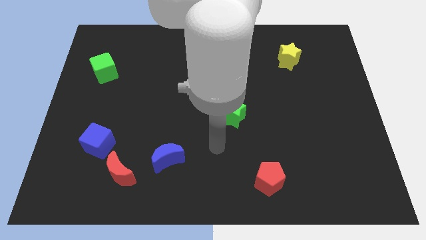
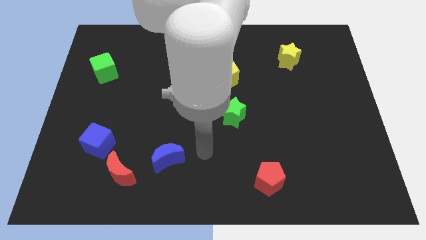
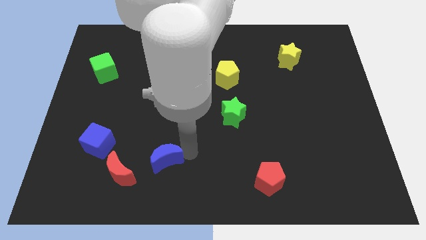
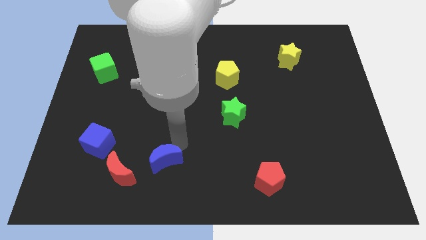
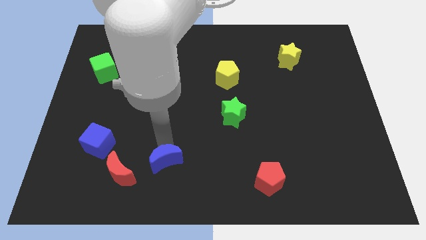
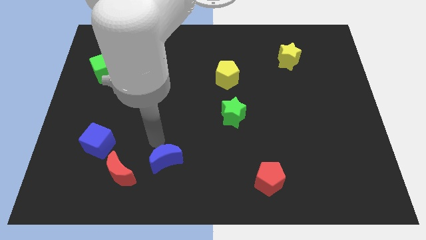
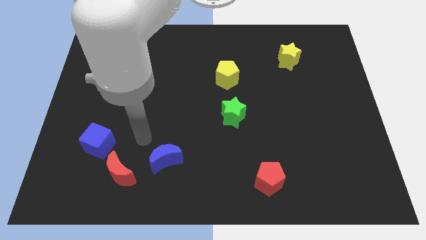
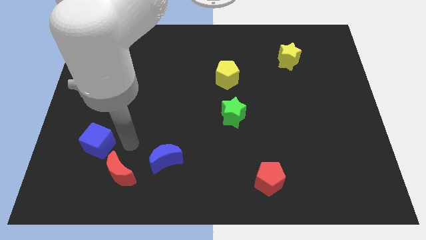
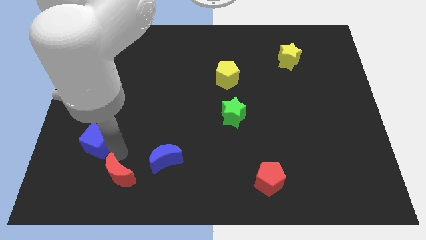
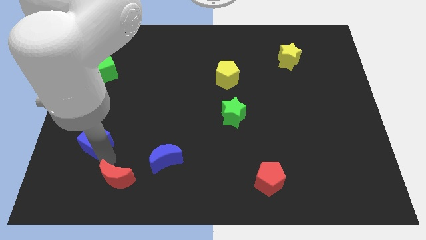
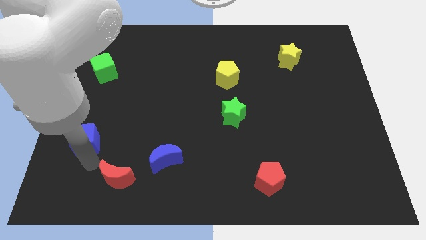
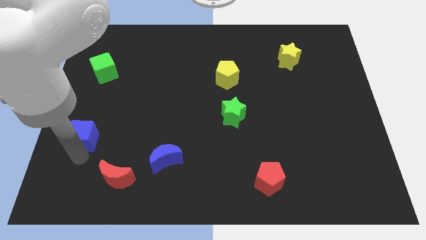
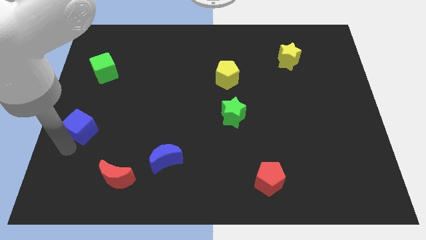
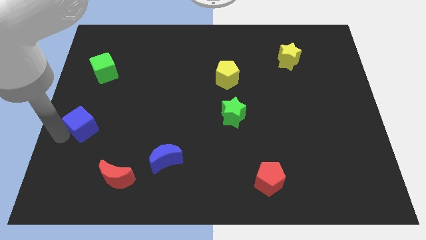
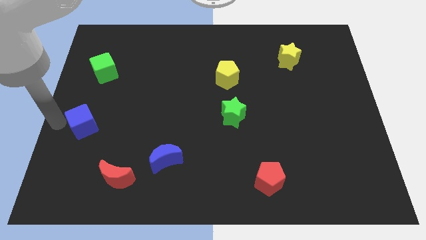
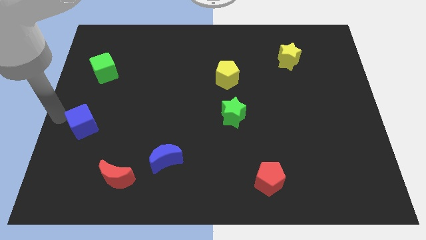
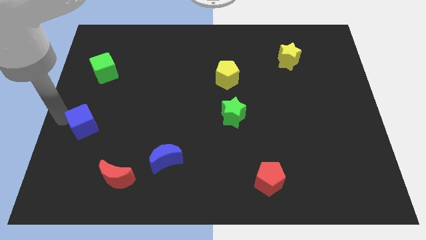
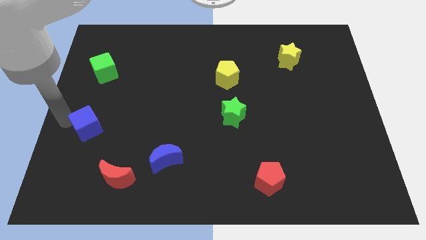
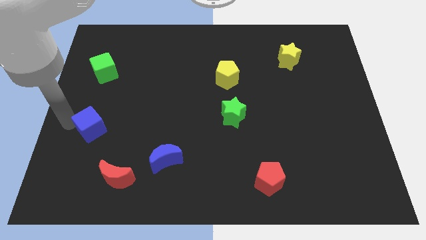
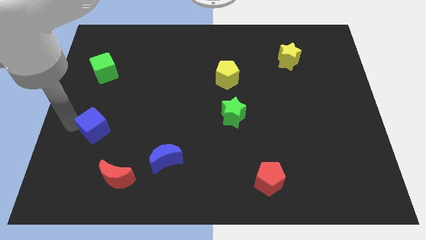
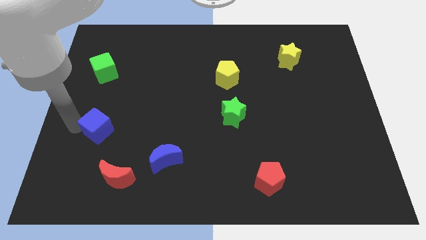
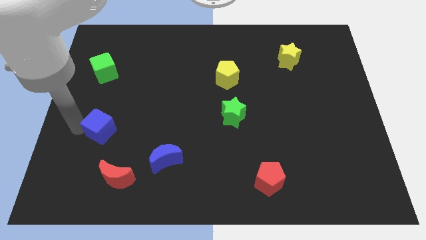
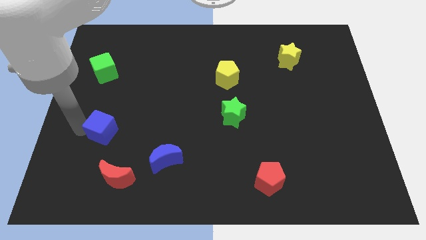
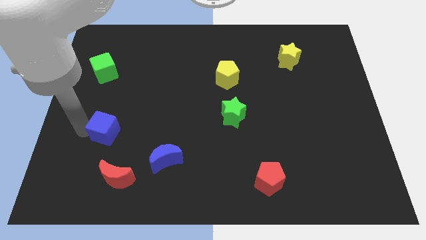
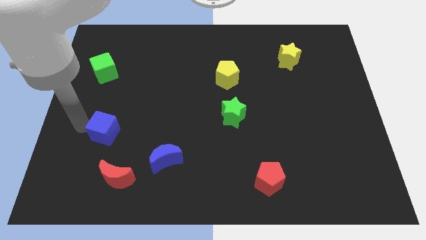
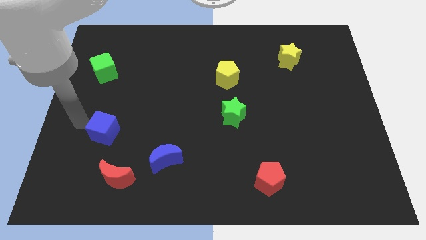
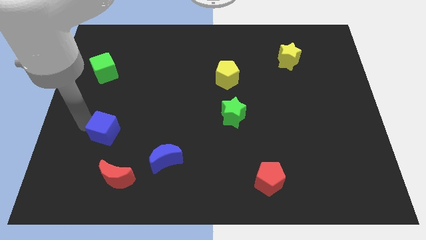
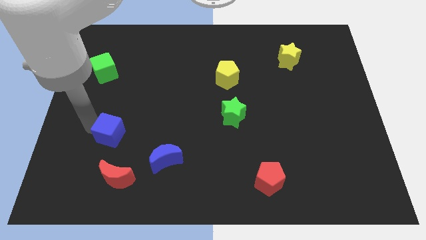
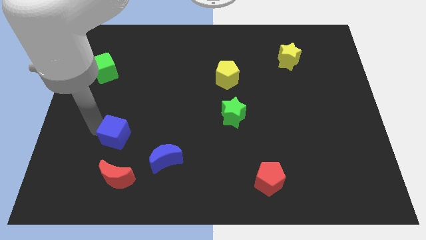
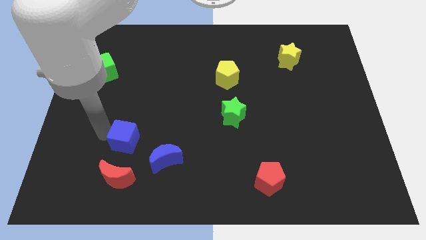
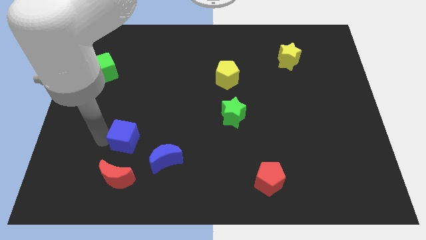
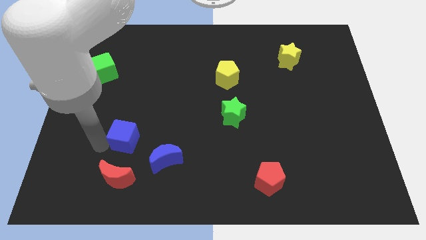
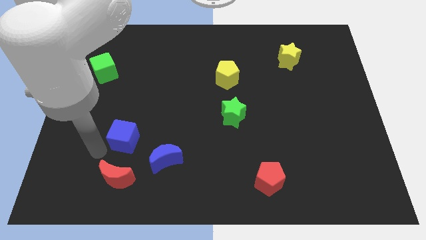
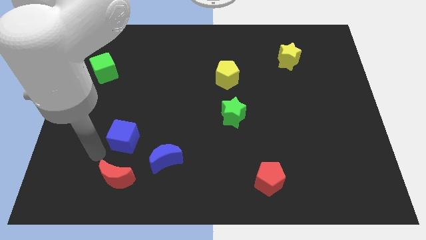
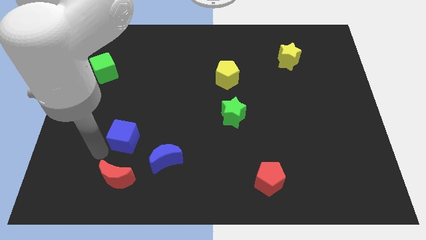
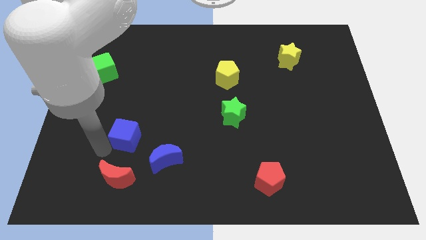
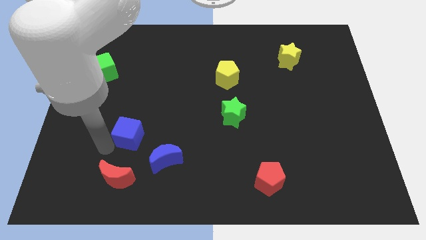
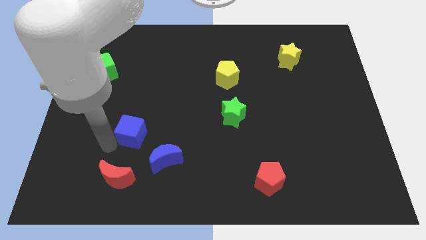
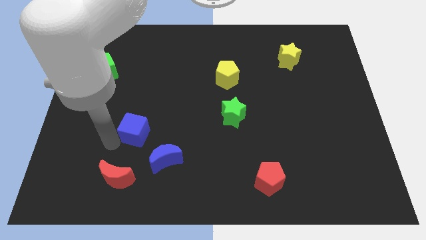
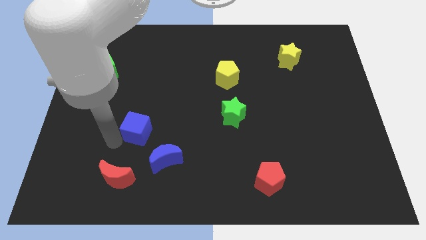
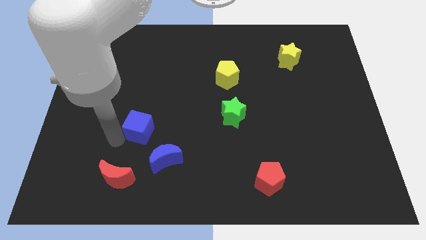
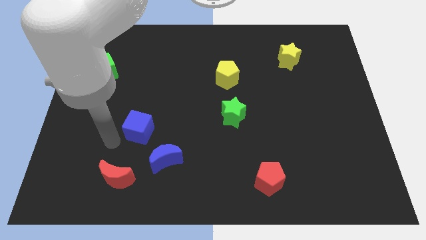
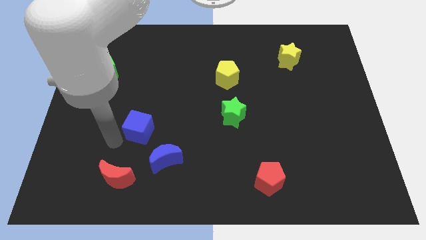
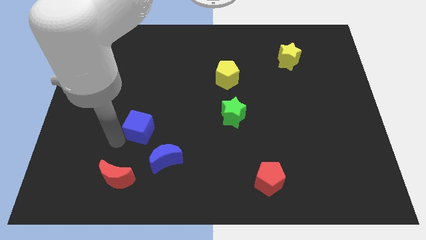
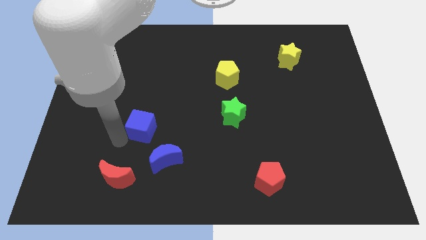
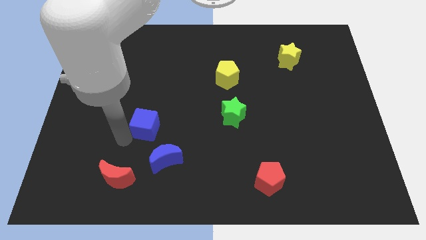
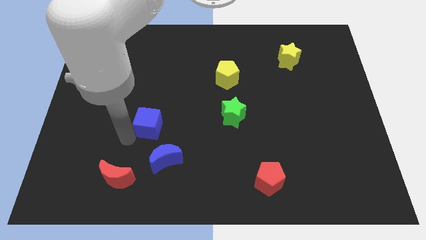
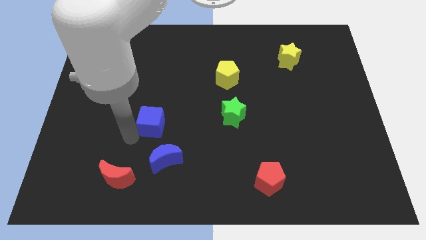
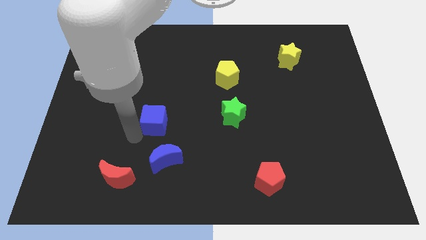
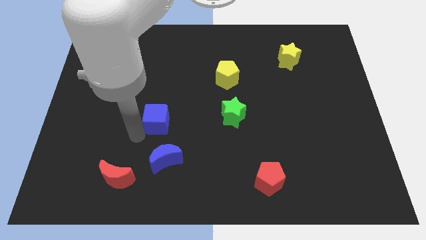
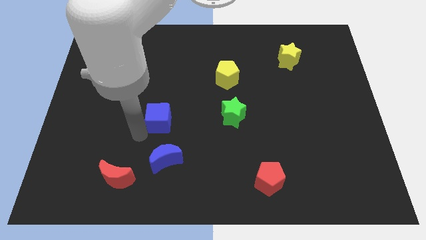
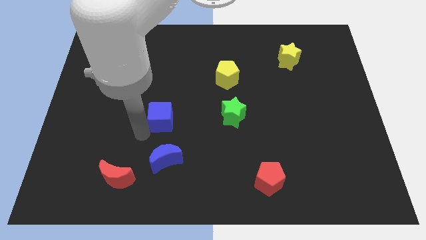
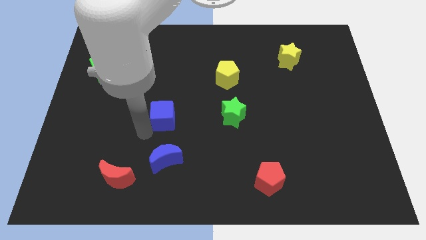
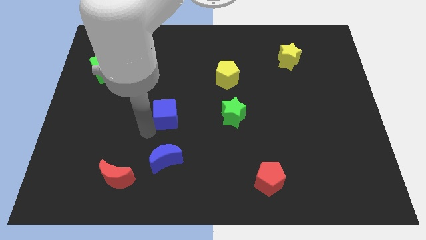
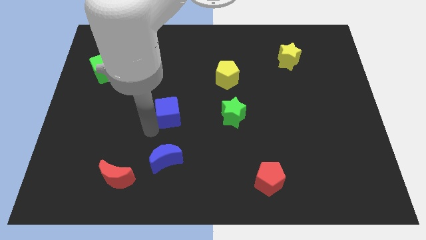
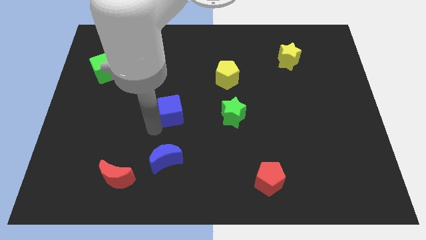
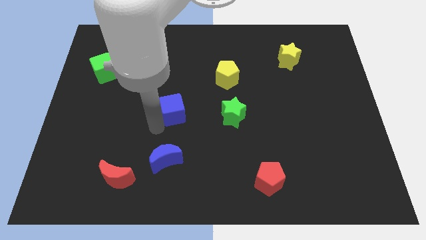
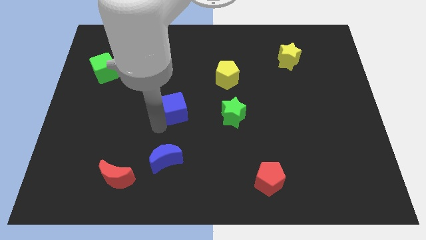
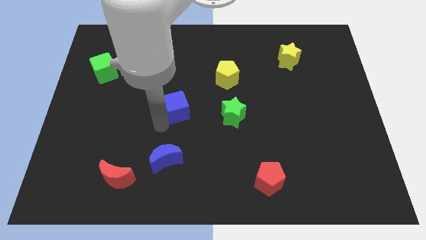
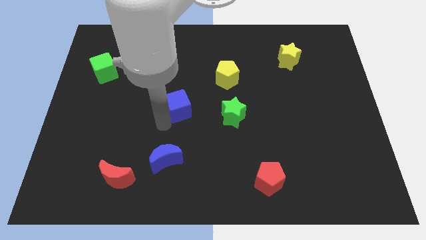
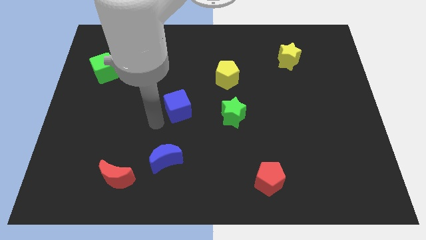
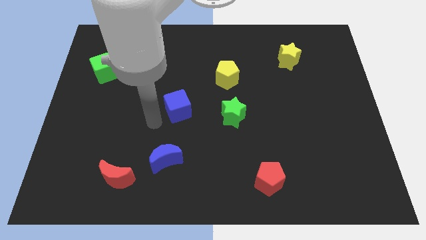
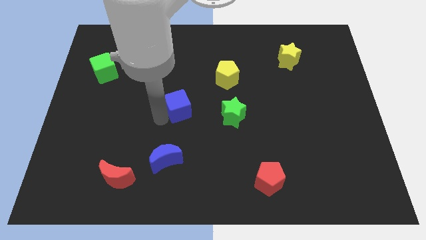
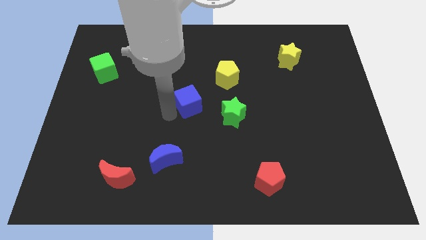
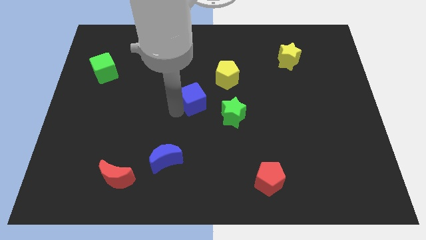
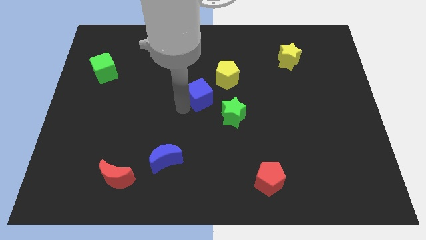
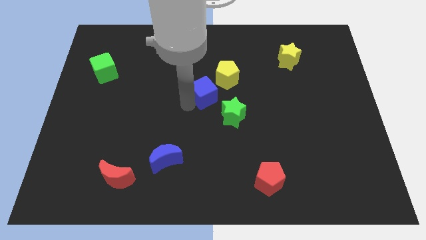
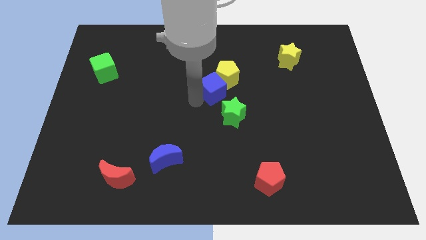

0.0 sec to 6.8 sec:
move the blue cube towards the yellow pentagon
